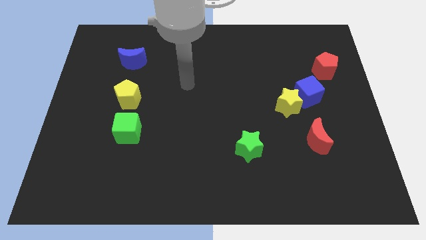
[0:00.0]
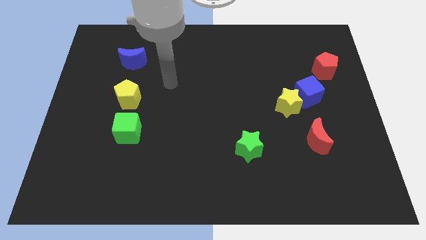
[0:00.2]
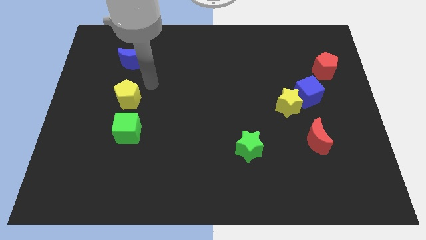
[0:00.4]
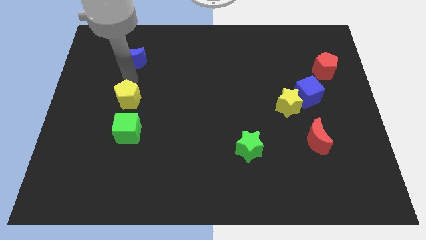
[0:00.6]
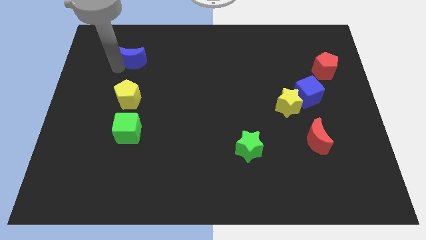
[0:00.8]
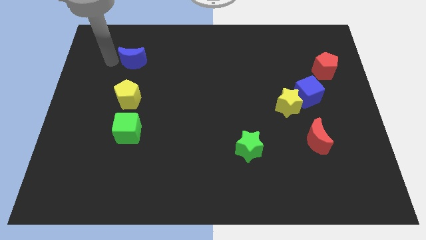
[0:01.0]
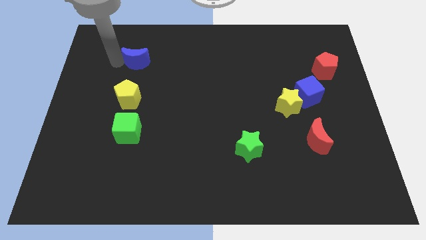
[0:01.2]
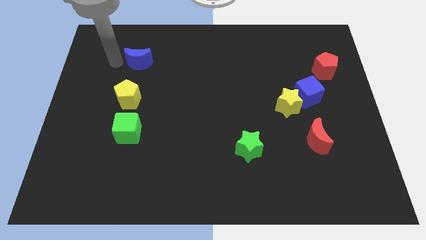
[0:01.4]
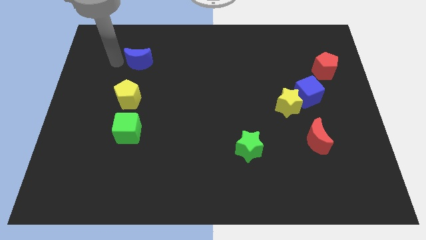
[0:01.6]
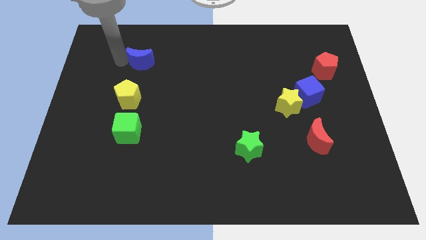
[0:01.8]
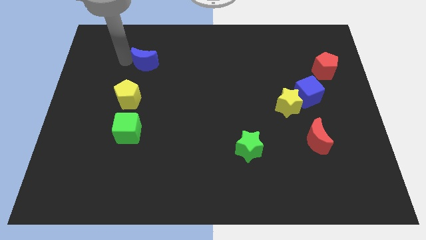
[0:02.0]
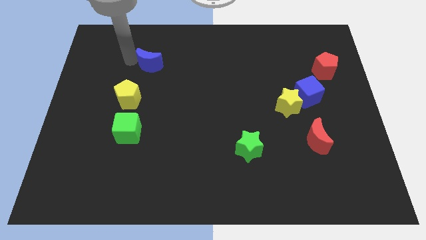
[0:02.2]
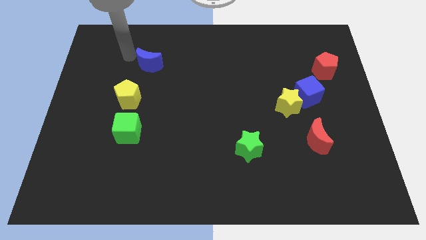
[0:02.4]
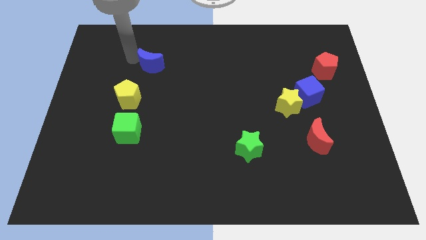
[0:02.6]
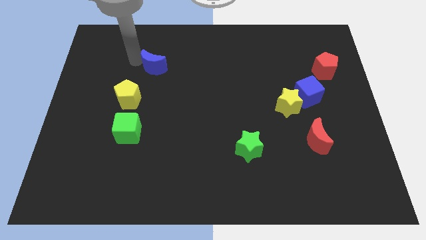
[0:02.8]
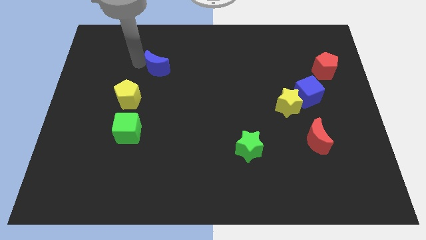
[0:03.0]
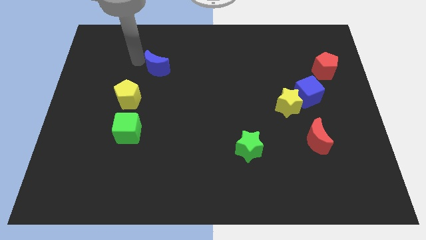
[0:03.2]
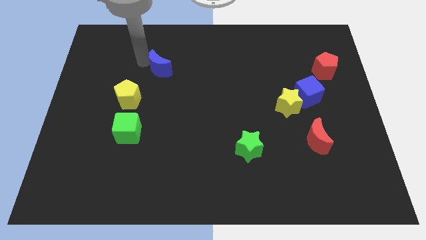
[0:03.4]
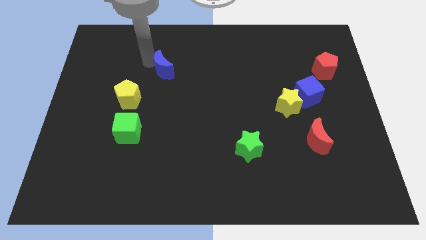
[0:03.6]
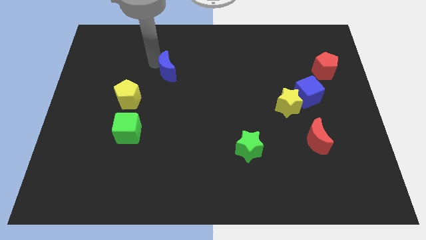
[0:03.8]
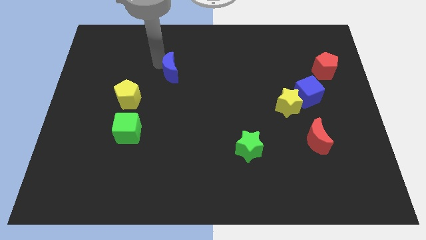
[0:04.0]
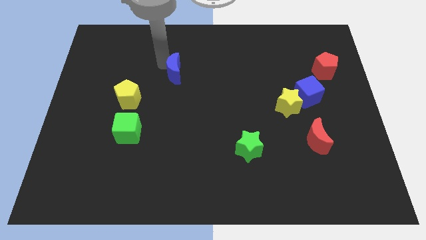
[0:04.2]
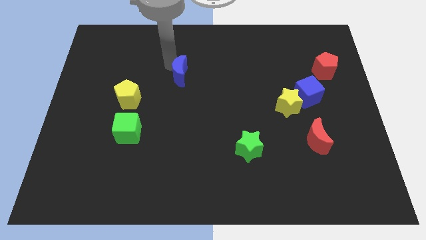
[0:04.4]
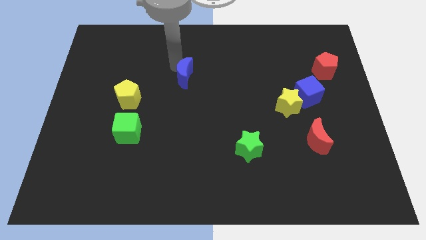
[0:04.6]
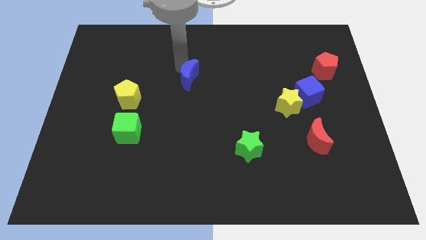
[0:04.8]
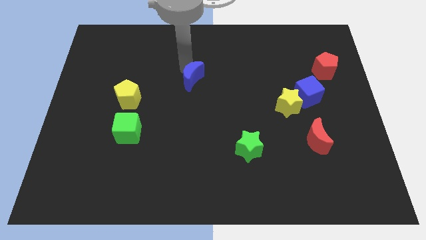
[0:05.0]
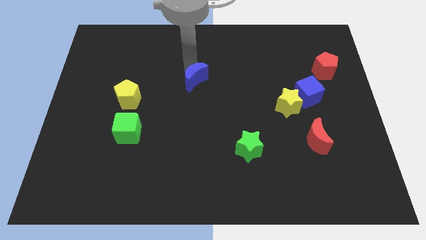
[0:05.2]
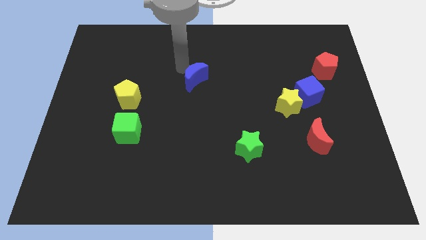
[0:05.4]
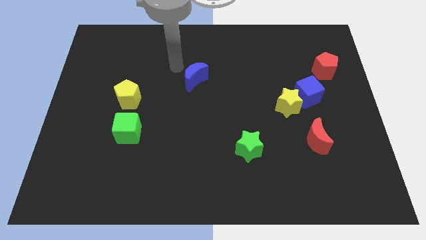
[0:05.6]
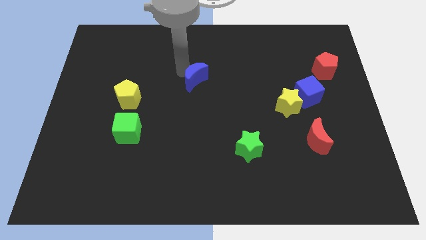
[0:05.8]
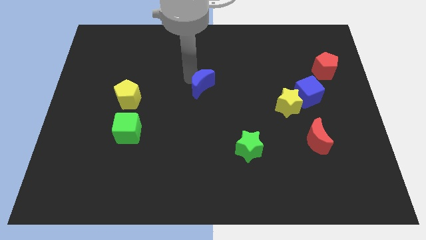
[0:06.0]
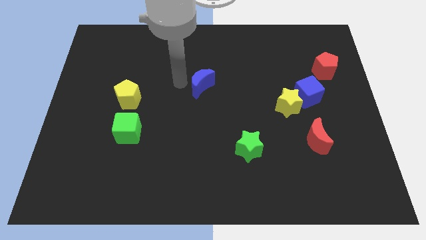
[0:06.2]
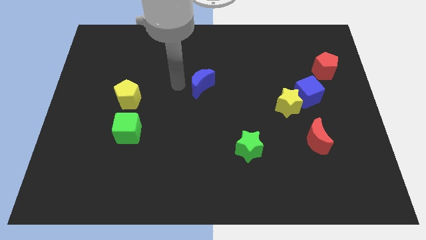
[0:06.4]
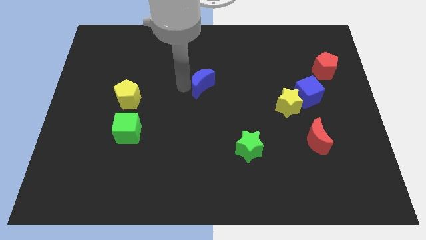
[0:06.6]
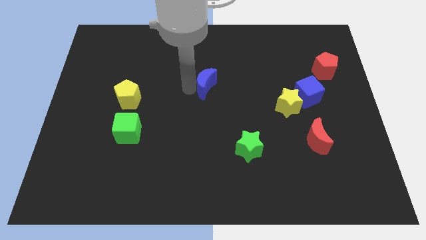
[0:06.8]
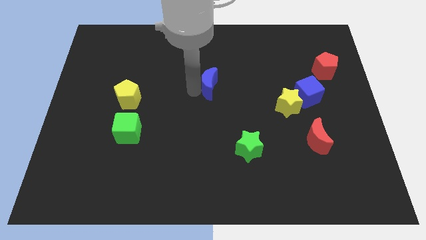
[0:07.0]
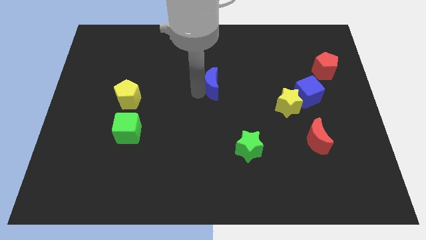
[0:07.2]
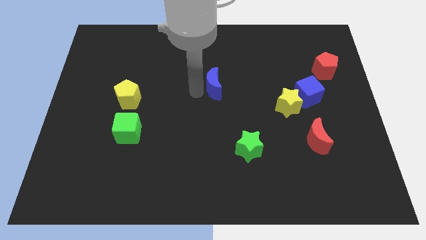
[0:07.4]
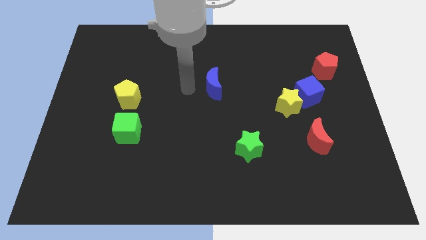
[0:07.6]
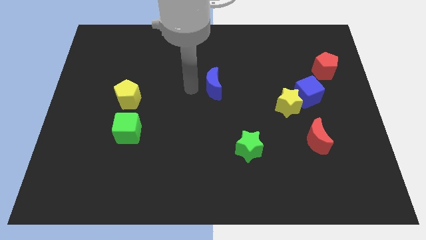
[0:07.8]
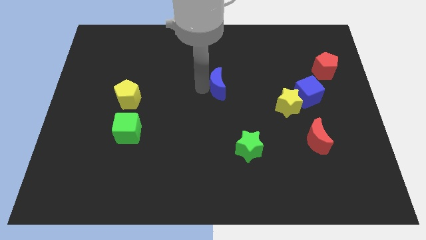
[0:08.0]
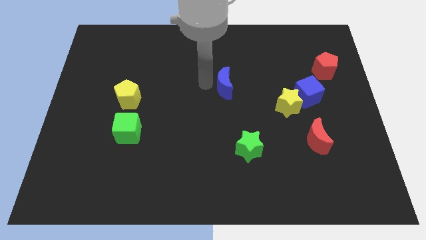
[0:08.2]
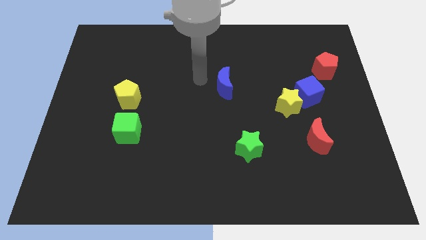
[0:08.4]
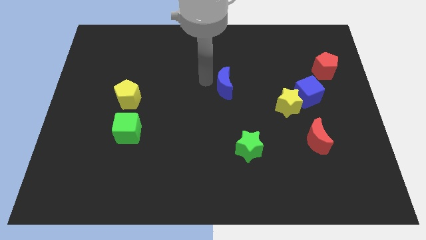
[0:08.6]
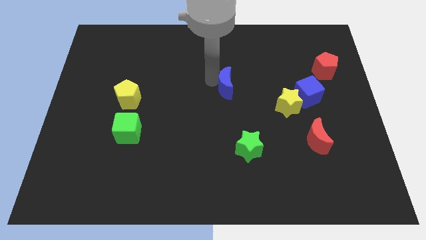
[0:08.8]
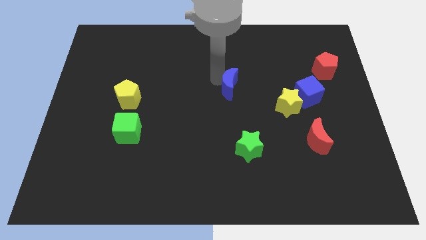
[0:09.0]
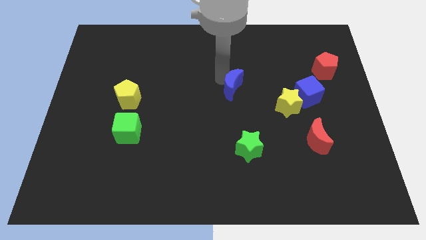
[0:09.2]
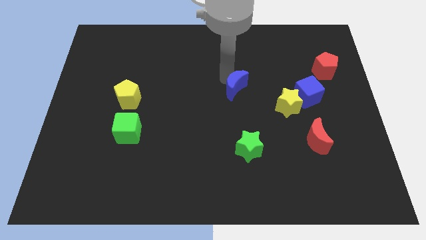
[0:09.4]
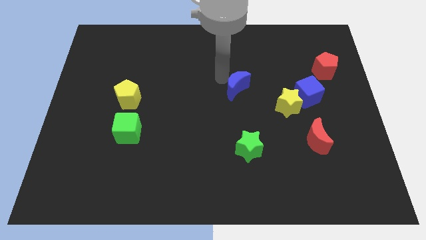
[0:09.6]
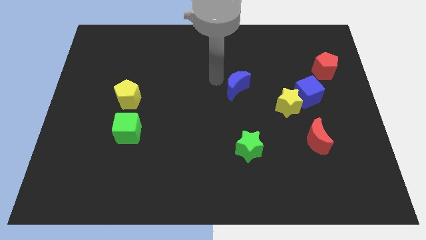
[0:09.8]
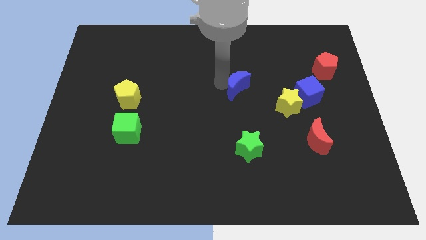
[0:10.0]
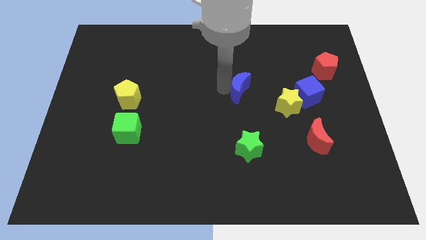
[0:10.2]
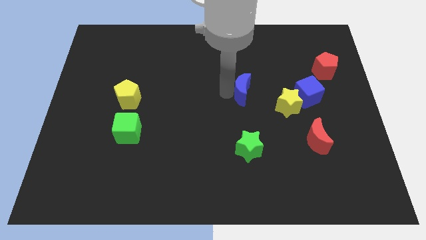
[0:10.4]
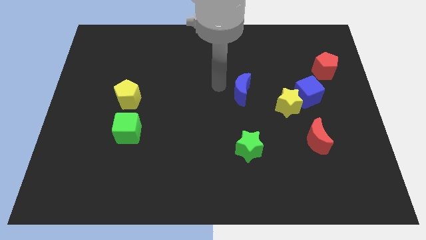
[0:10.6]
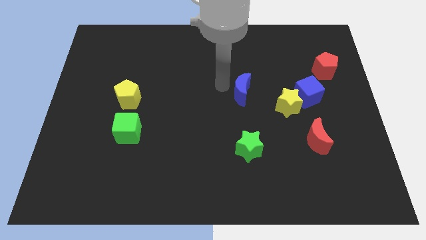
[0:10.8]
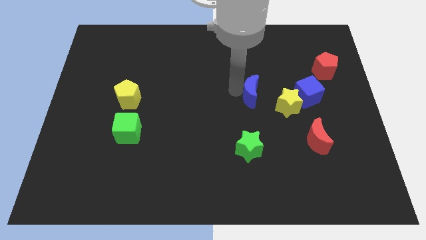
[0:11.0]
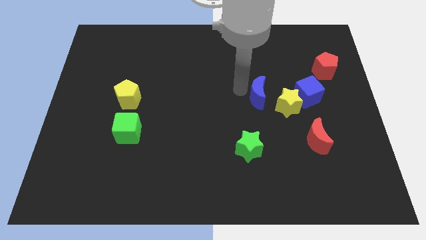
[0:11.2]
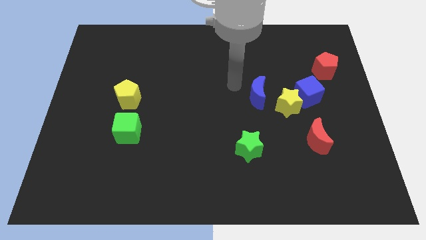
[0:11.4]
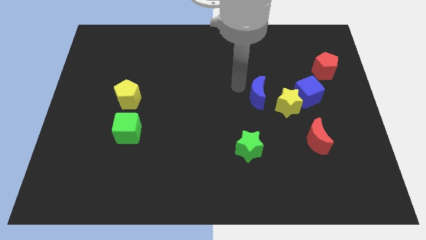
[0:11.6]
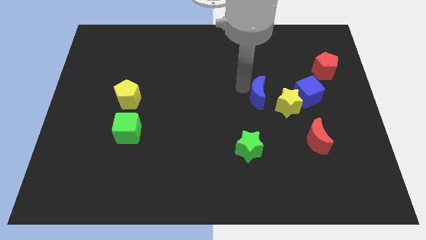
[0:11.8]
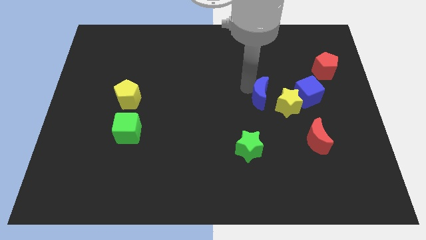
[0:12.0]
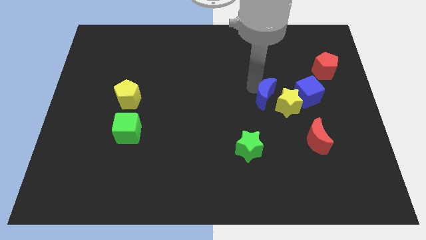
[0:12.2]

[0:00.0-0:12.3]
push the blue moon towards the yellow star

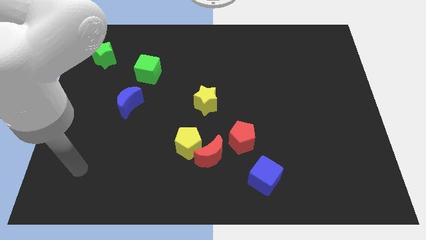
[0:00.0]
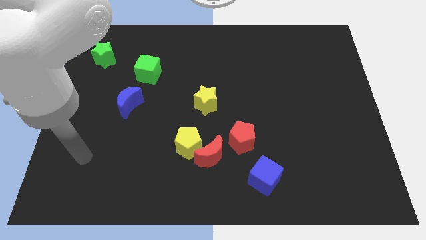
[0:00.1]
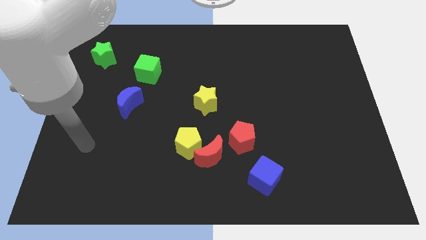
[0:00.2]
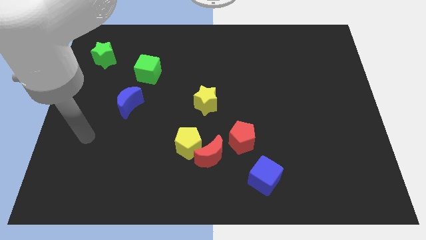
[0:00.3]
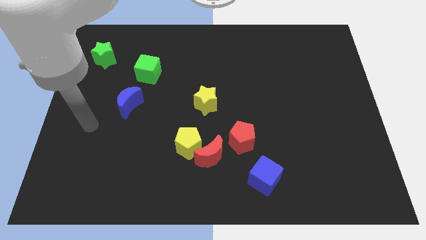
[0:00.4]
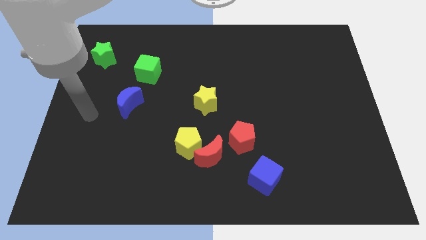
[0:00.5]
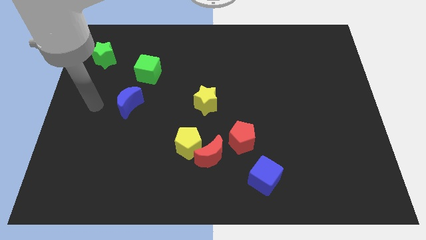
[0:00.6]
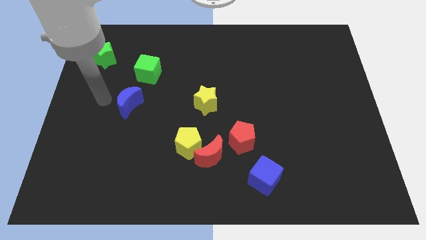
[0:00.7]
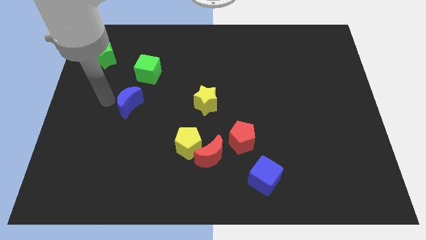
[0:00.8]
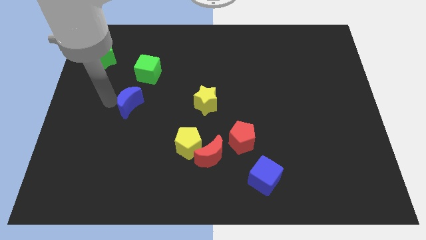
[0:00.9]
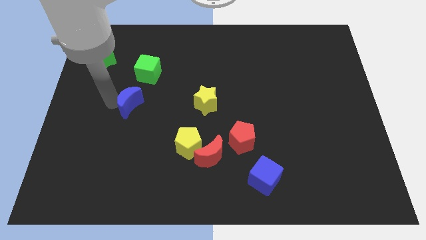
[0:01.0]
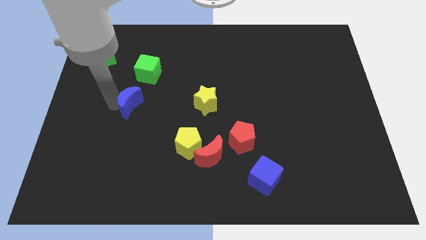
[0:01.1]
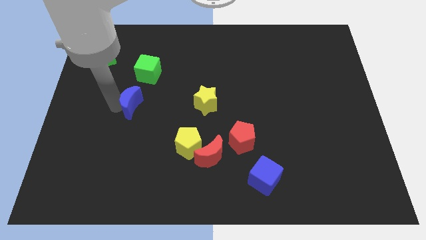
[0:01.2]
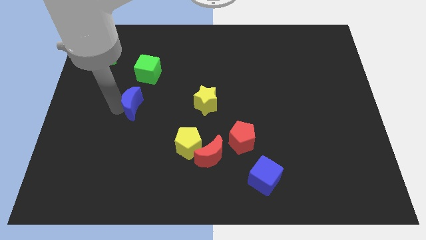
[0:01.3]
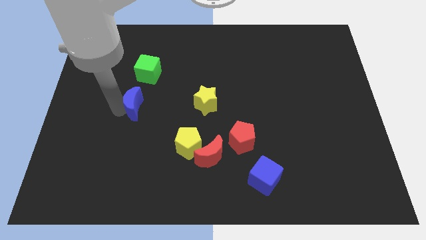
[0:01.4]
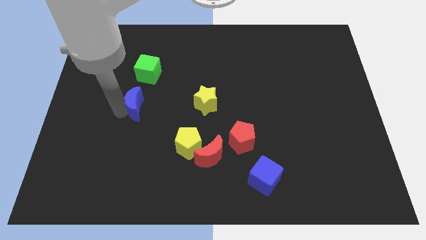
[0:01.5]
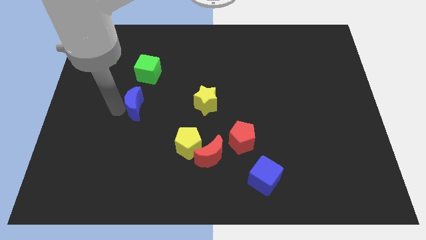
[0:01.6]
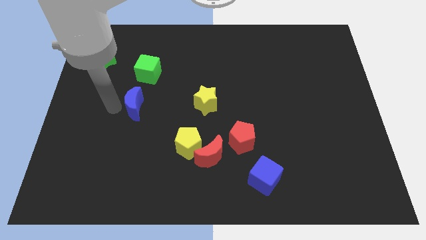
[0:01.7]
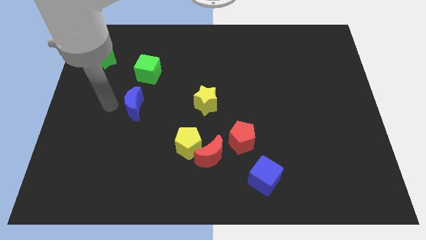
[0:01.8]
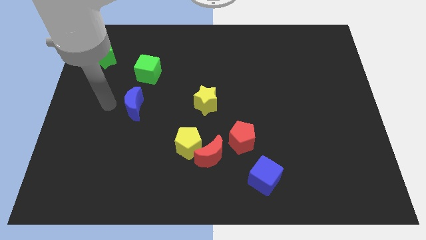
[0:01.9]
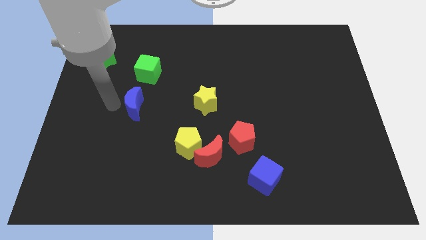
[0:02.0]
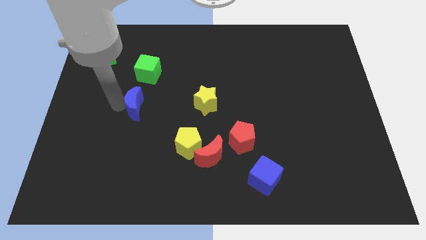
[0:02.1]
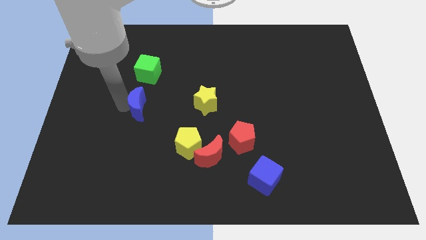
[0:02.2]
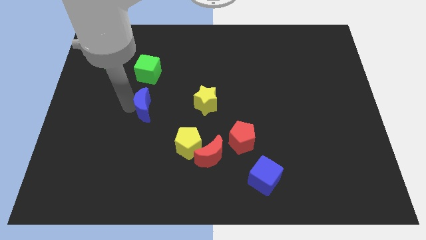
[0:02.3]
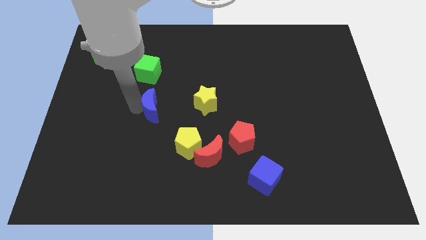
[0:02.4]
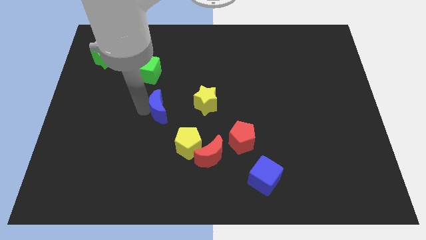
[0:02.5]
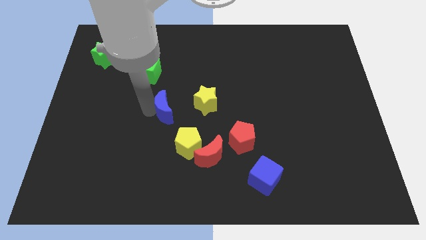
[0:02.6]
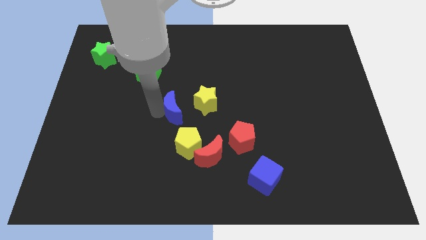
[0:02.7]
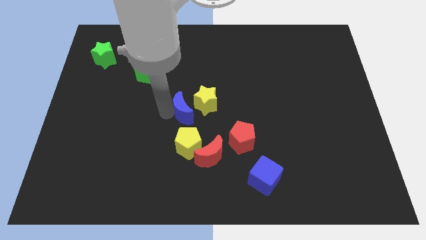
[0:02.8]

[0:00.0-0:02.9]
move the blue moon next to the yellow star
